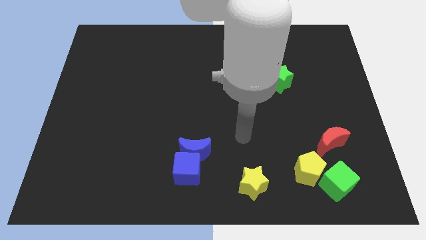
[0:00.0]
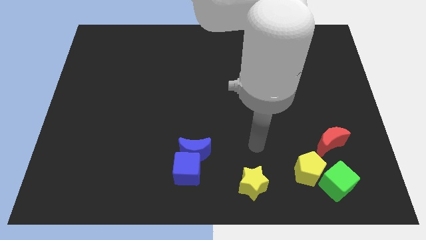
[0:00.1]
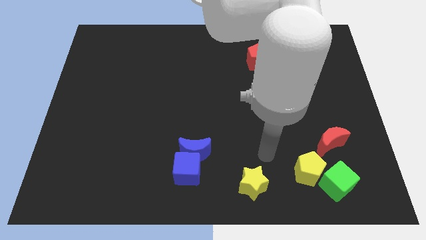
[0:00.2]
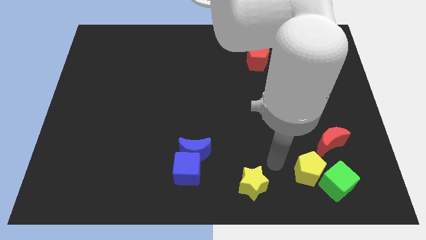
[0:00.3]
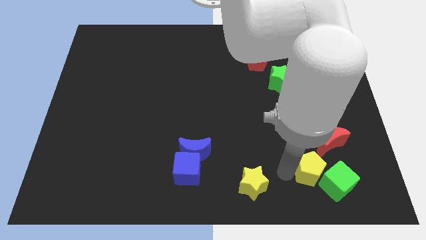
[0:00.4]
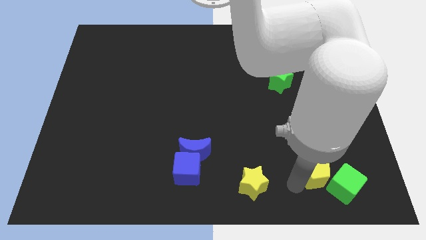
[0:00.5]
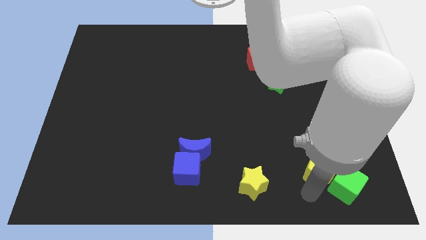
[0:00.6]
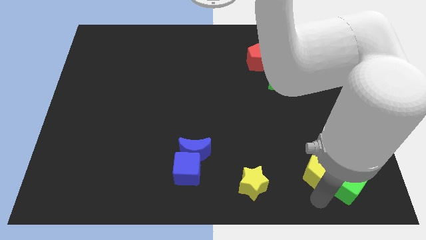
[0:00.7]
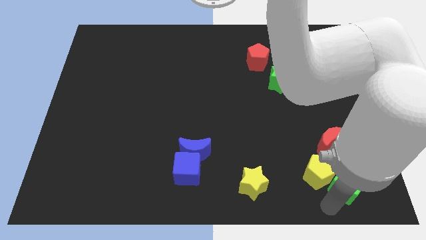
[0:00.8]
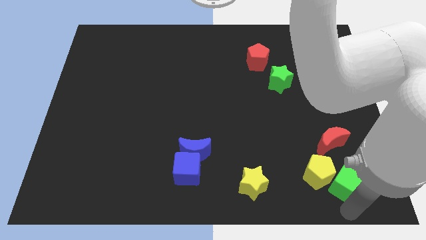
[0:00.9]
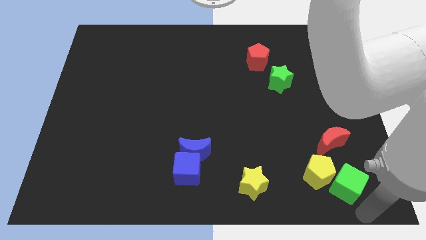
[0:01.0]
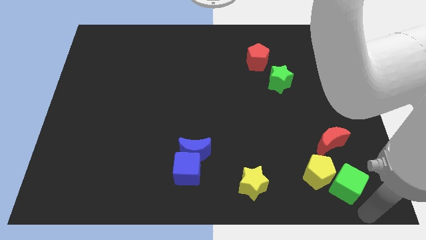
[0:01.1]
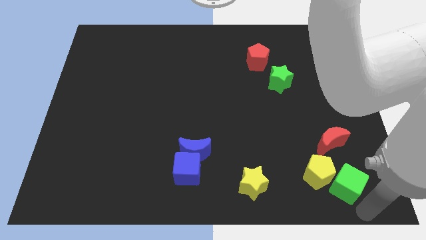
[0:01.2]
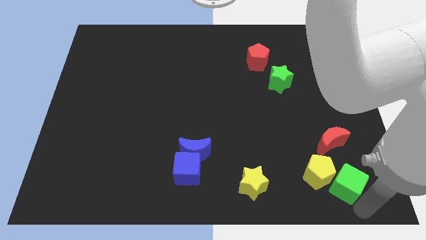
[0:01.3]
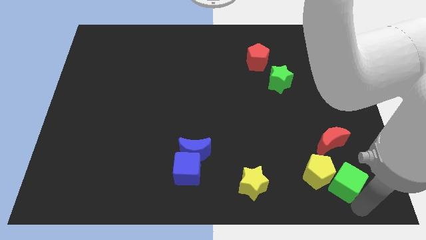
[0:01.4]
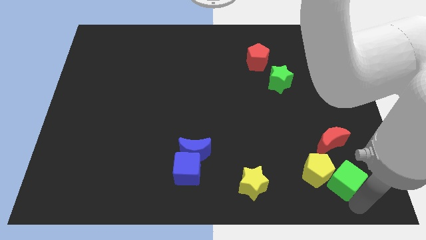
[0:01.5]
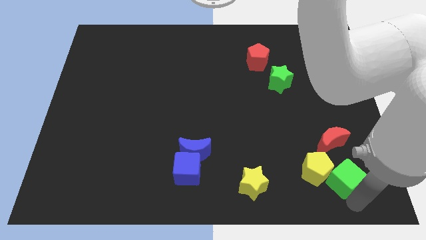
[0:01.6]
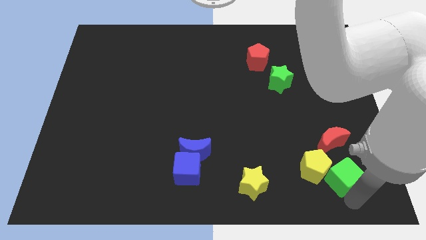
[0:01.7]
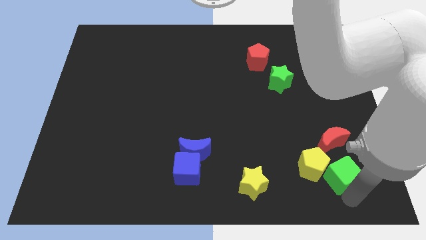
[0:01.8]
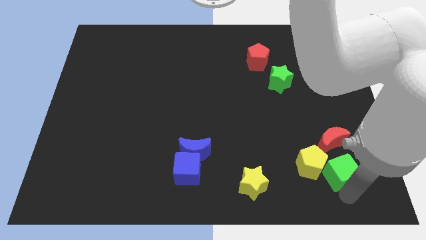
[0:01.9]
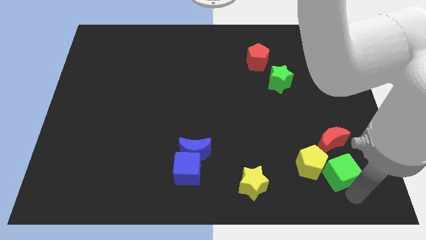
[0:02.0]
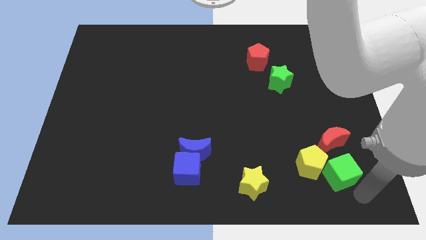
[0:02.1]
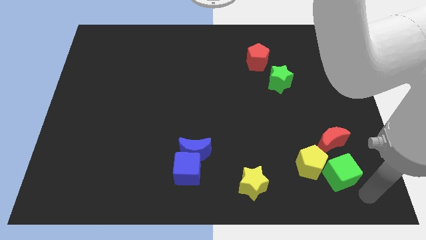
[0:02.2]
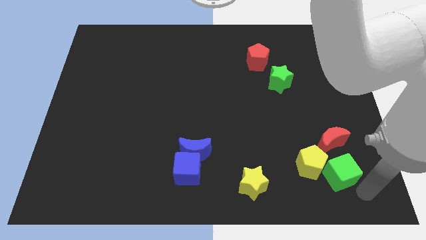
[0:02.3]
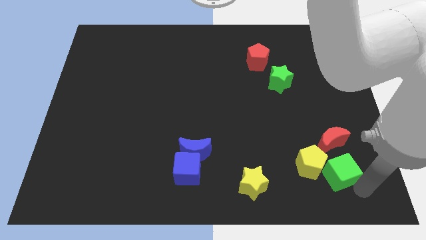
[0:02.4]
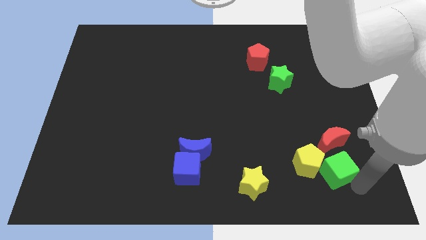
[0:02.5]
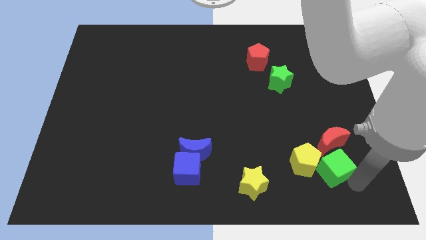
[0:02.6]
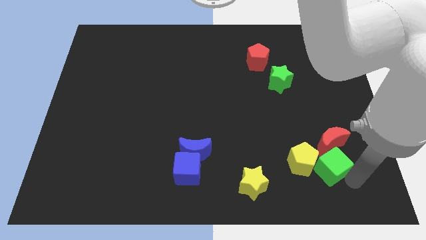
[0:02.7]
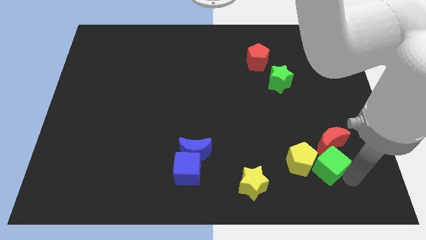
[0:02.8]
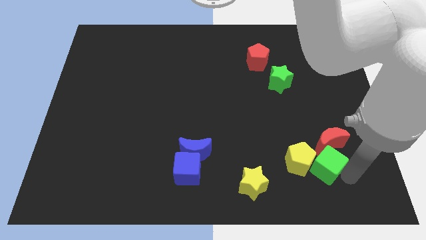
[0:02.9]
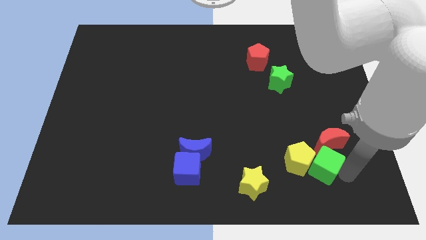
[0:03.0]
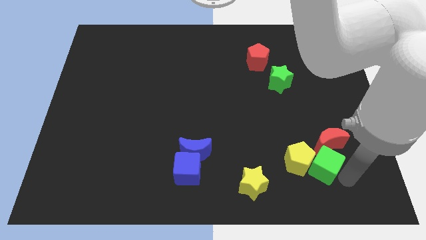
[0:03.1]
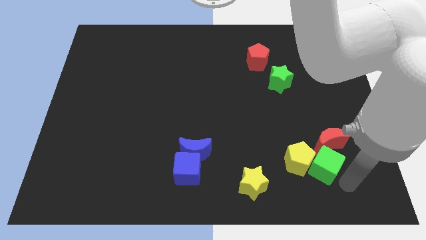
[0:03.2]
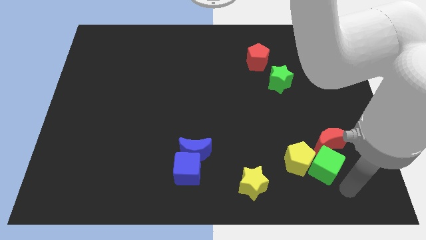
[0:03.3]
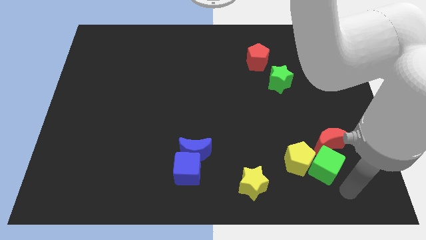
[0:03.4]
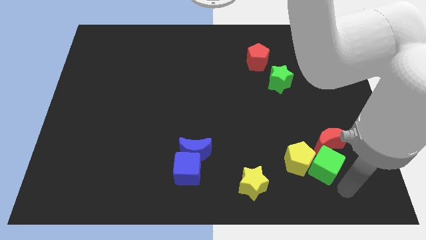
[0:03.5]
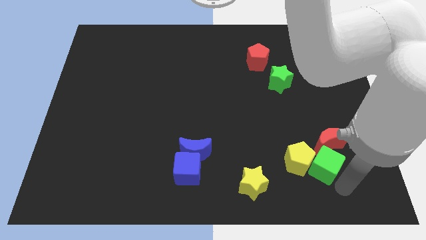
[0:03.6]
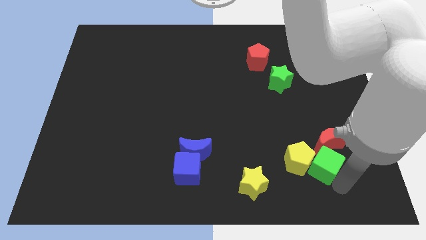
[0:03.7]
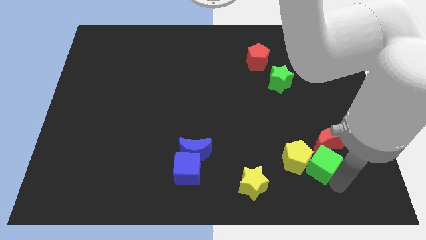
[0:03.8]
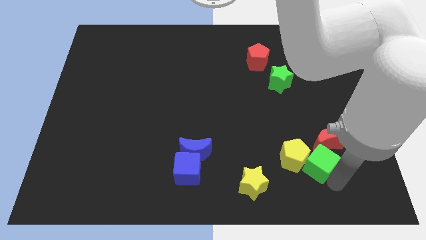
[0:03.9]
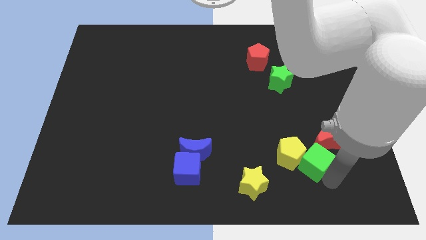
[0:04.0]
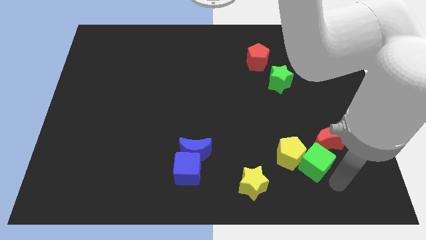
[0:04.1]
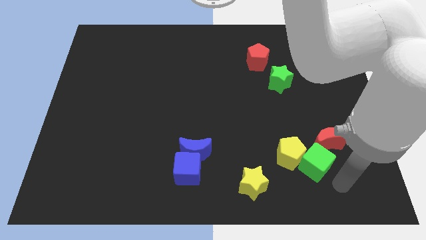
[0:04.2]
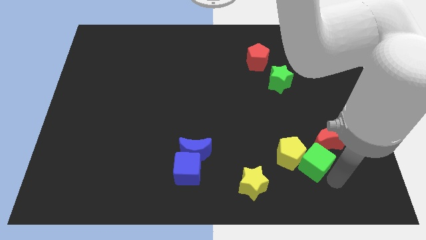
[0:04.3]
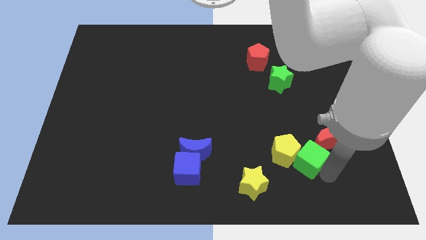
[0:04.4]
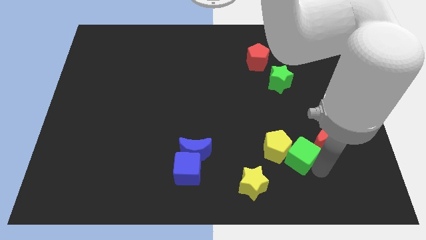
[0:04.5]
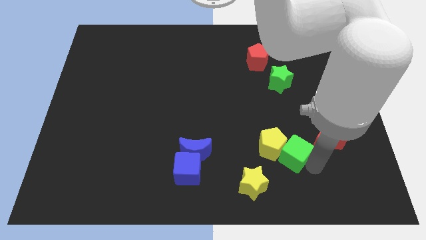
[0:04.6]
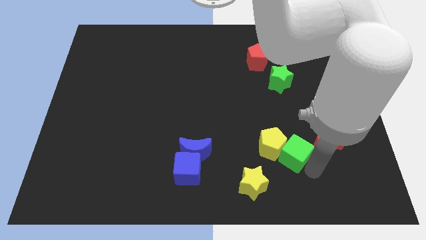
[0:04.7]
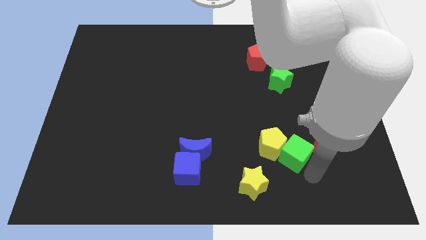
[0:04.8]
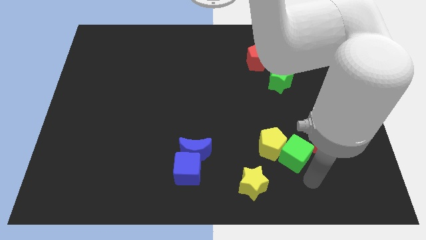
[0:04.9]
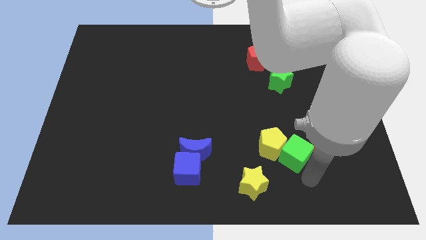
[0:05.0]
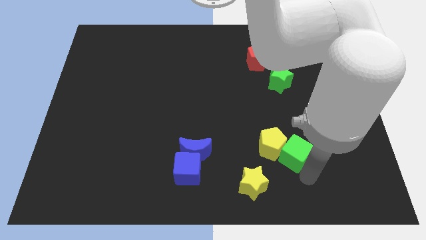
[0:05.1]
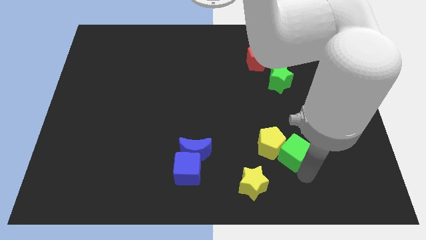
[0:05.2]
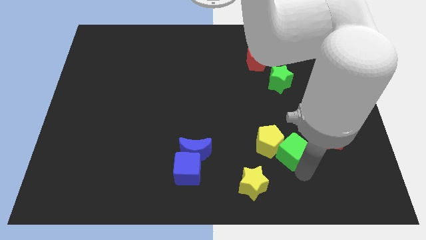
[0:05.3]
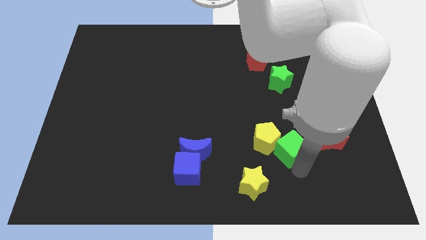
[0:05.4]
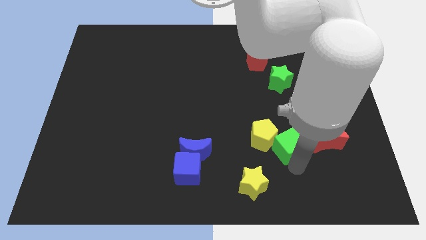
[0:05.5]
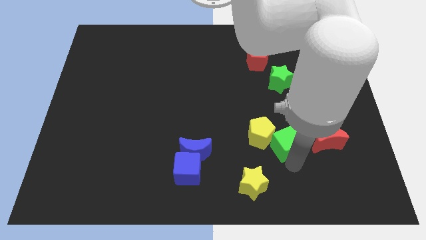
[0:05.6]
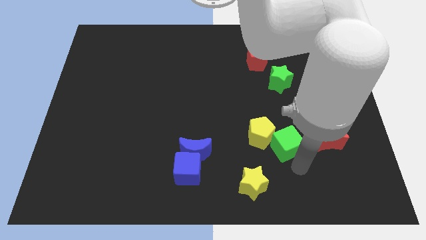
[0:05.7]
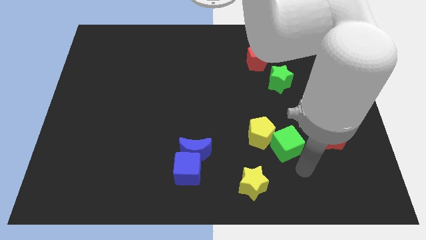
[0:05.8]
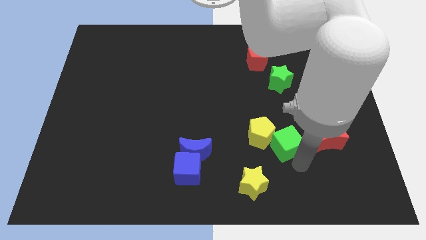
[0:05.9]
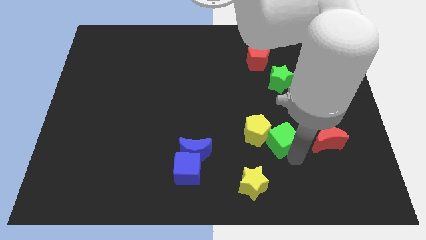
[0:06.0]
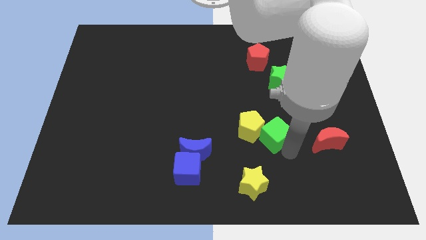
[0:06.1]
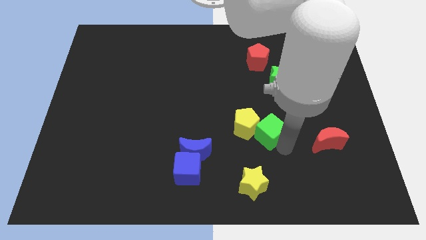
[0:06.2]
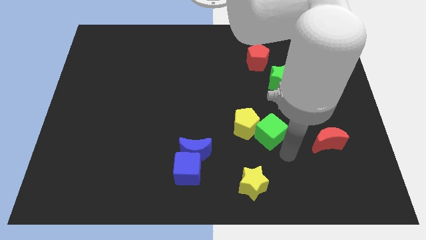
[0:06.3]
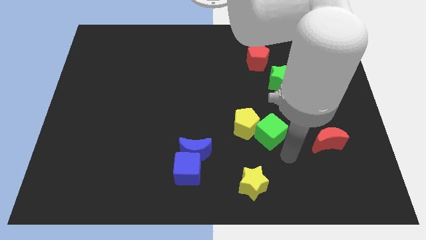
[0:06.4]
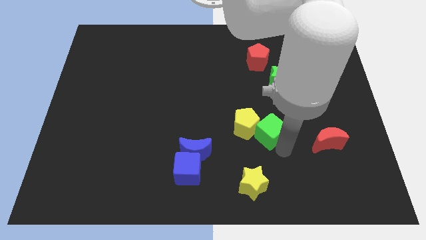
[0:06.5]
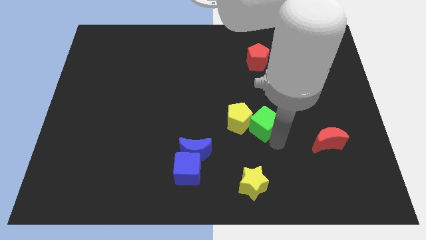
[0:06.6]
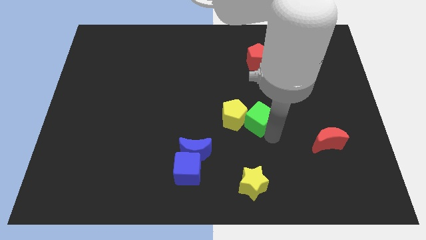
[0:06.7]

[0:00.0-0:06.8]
push the green cube diagonally up and to the left

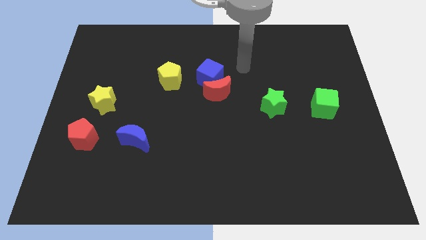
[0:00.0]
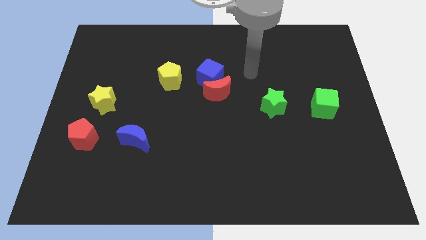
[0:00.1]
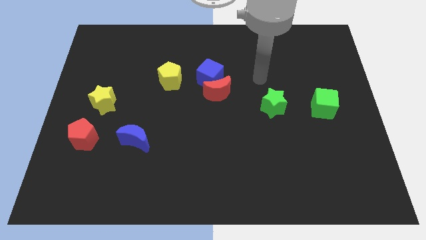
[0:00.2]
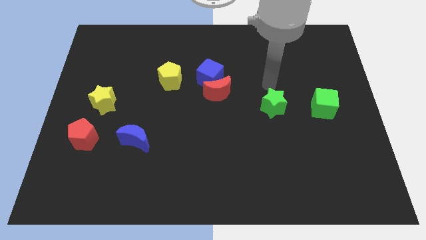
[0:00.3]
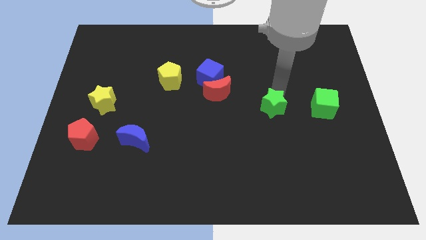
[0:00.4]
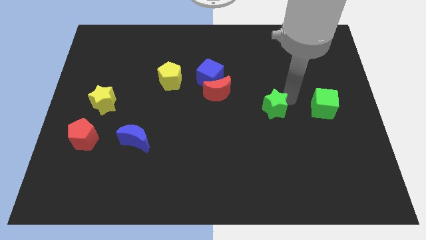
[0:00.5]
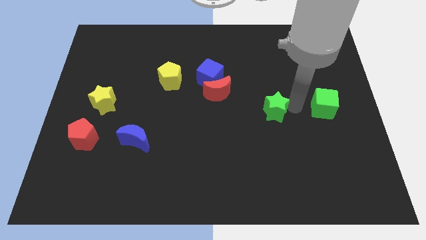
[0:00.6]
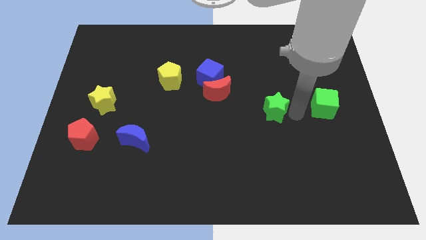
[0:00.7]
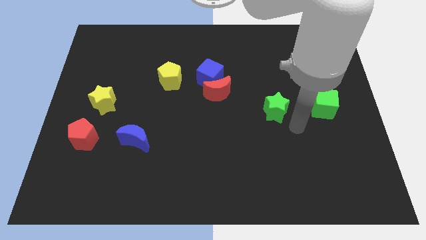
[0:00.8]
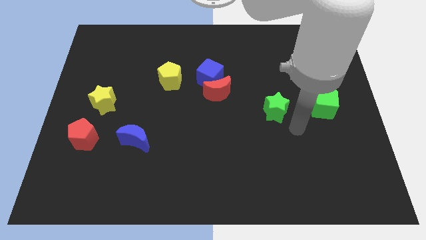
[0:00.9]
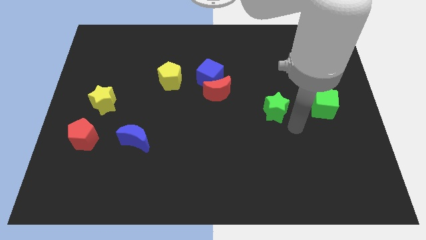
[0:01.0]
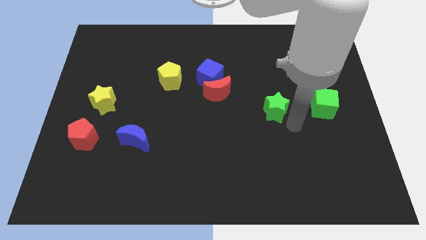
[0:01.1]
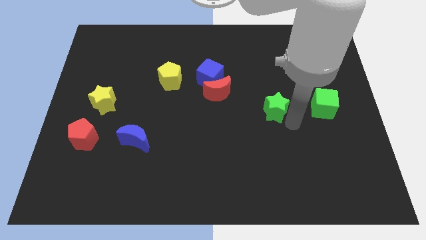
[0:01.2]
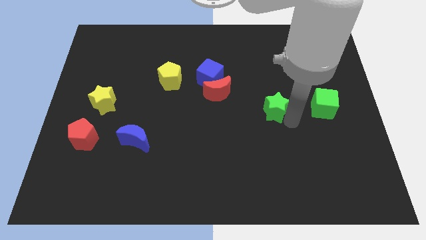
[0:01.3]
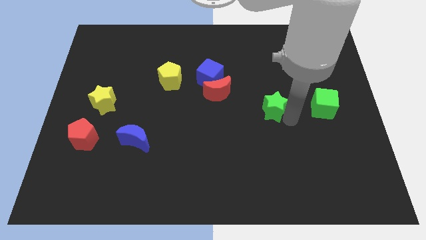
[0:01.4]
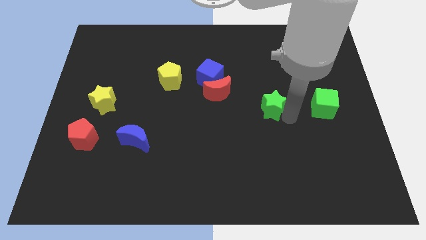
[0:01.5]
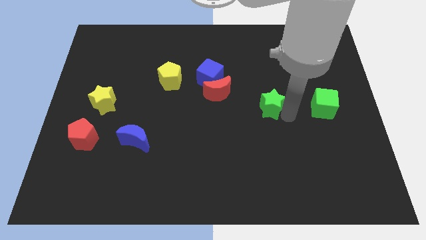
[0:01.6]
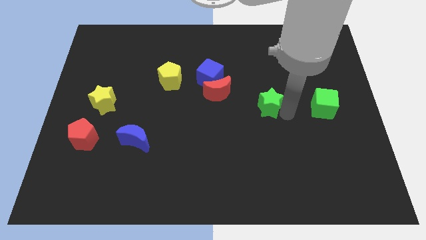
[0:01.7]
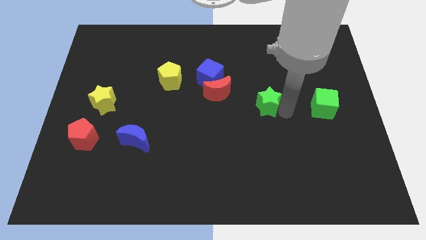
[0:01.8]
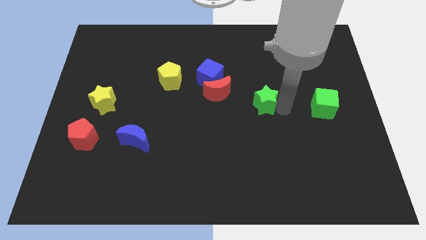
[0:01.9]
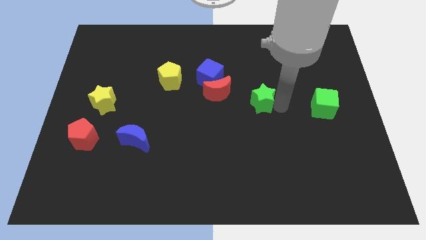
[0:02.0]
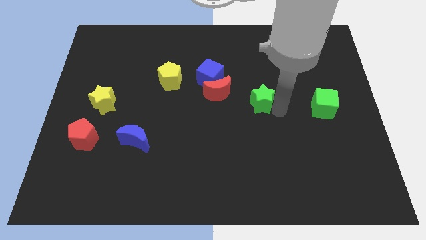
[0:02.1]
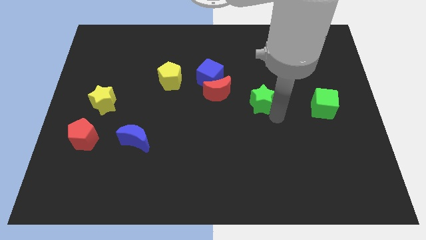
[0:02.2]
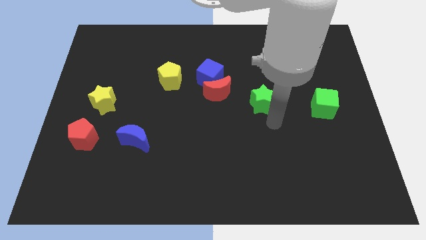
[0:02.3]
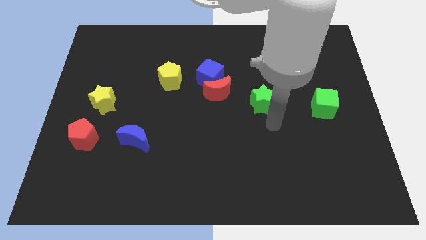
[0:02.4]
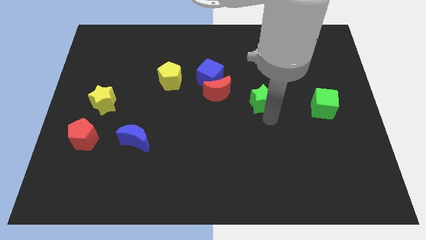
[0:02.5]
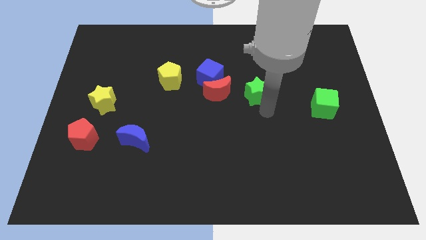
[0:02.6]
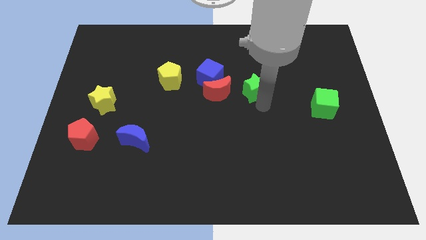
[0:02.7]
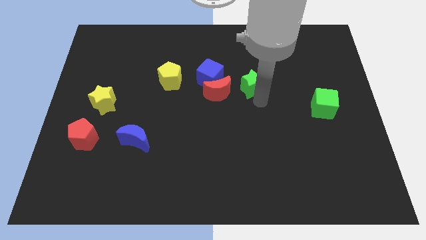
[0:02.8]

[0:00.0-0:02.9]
move the green star diagonally upwards and to the left a little
